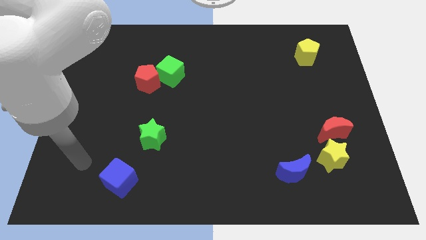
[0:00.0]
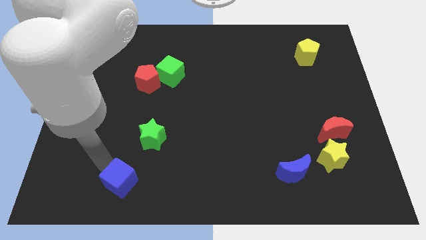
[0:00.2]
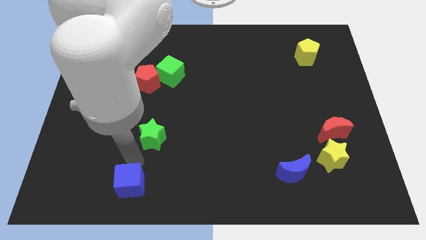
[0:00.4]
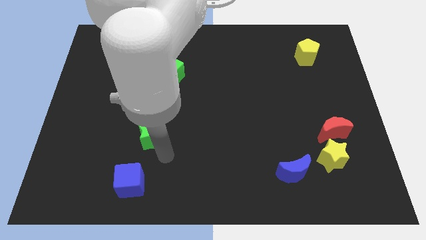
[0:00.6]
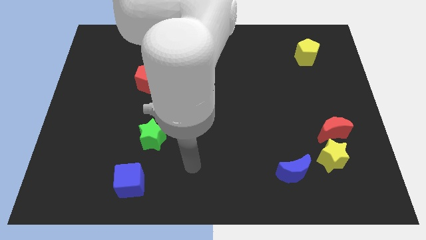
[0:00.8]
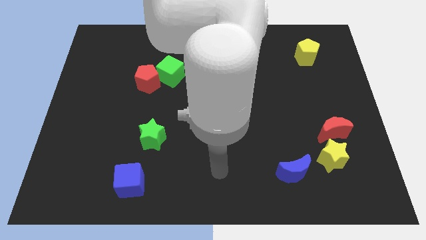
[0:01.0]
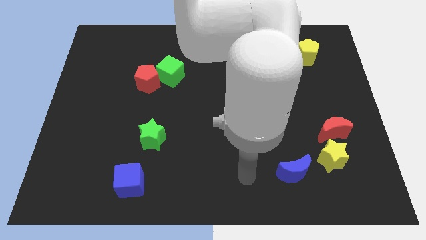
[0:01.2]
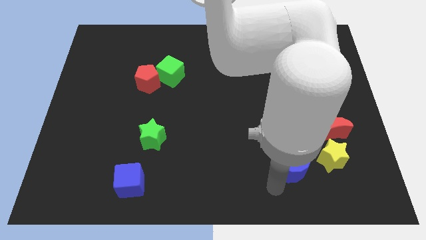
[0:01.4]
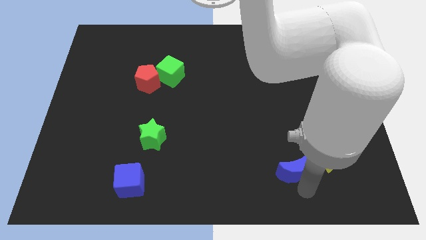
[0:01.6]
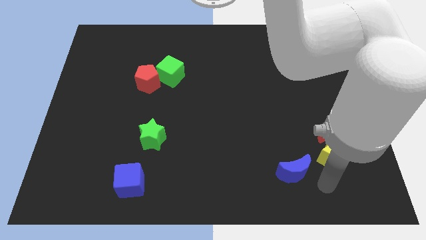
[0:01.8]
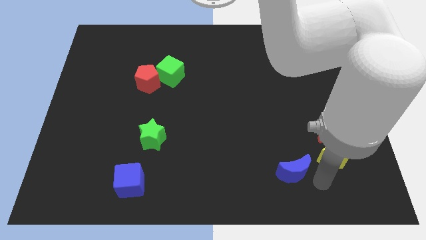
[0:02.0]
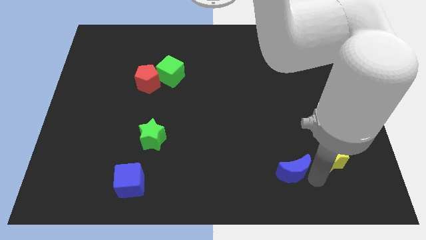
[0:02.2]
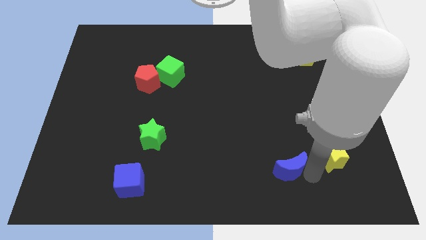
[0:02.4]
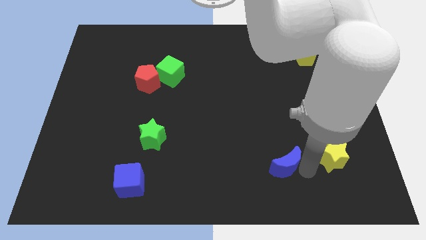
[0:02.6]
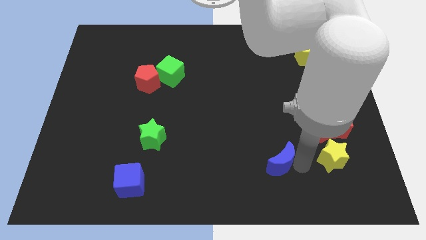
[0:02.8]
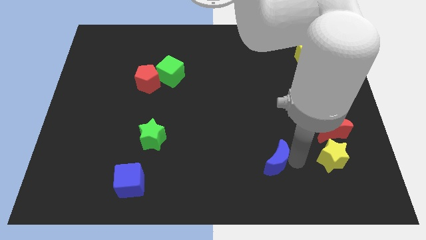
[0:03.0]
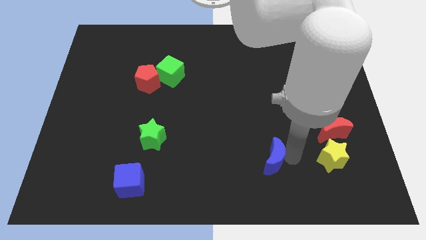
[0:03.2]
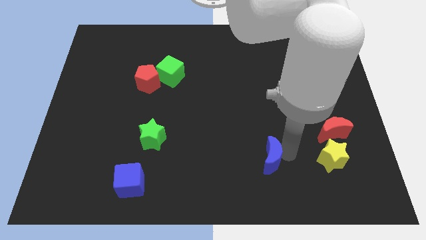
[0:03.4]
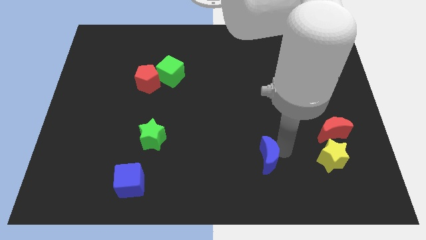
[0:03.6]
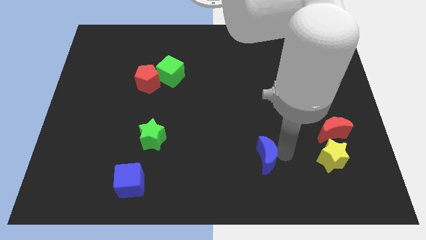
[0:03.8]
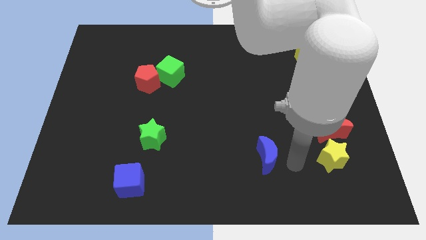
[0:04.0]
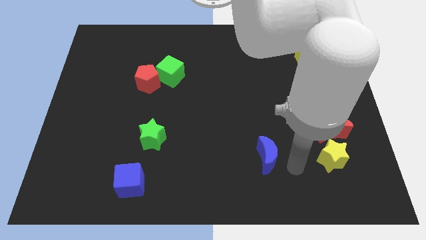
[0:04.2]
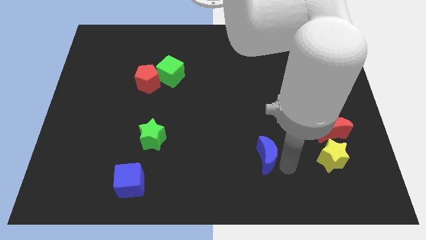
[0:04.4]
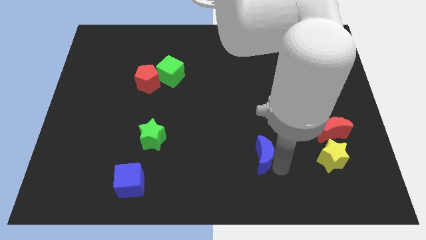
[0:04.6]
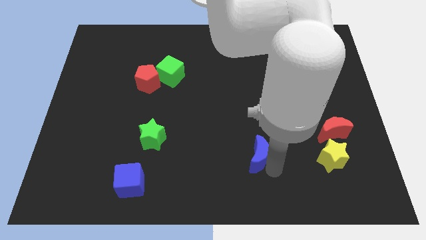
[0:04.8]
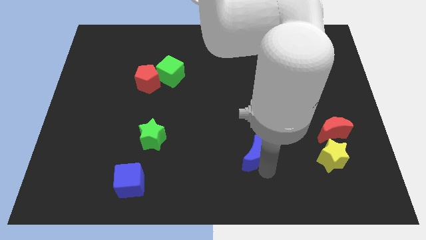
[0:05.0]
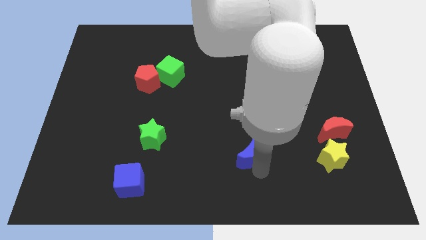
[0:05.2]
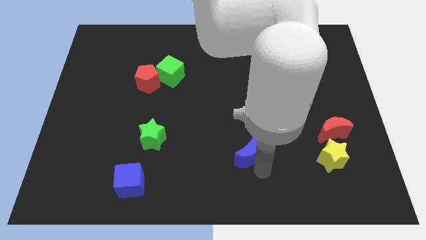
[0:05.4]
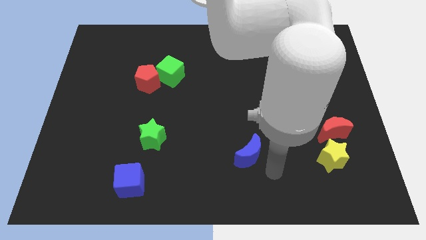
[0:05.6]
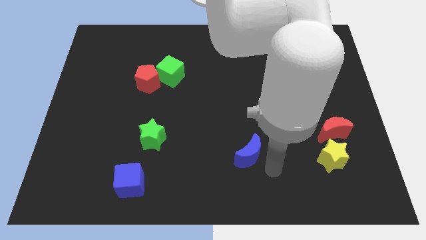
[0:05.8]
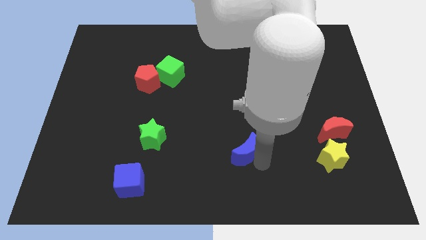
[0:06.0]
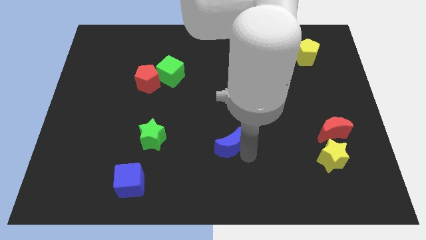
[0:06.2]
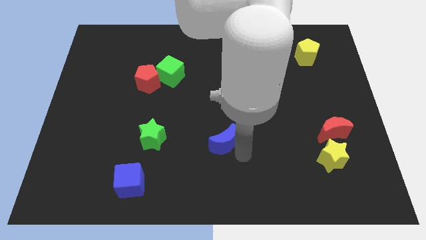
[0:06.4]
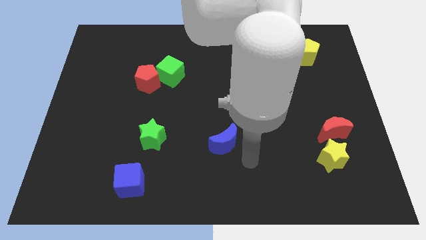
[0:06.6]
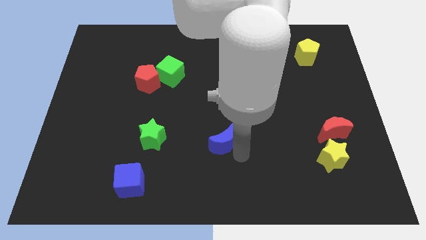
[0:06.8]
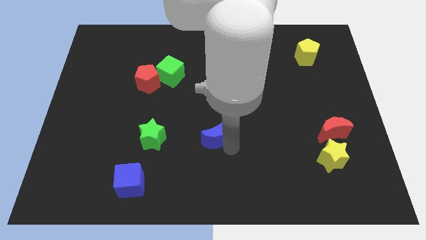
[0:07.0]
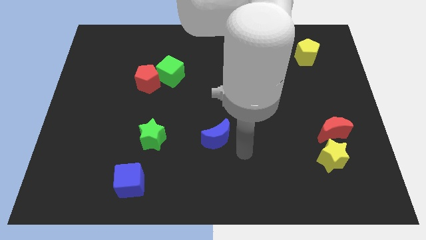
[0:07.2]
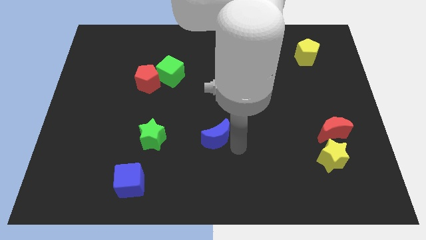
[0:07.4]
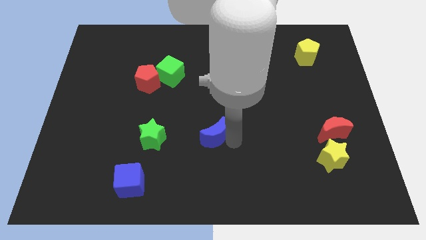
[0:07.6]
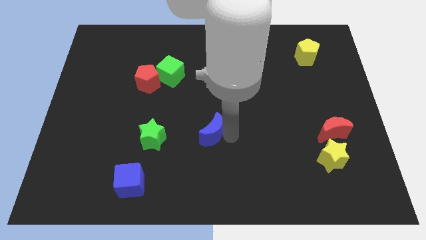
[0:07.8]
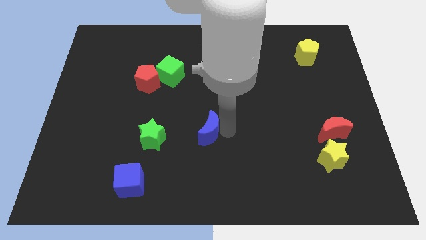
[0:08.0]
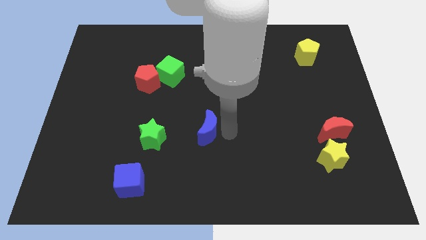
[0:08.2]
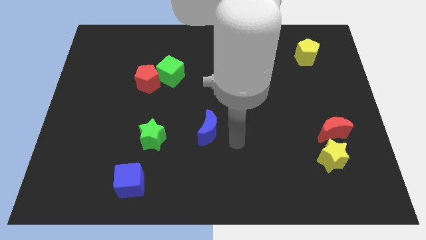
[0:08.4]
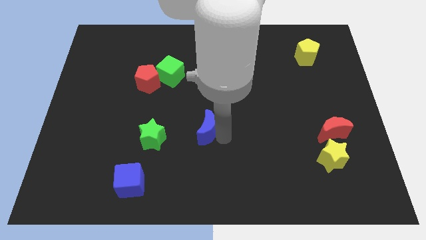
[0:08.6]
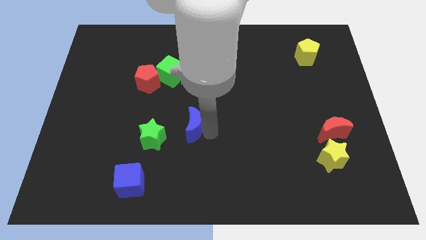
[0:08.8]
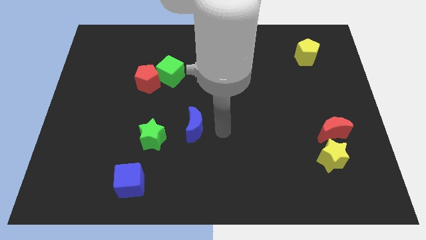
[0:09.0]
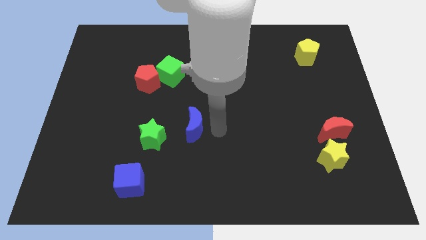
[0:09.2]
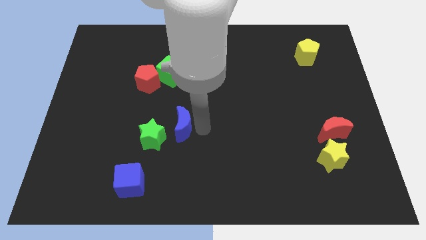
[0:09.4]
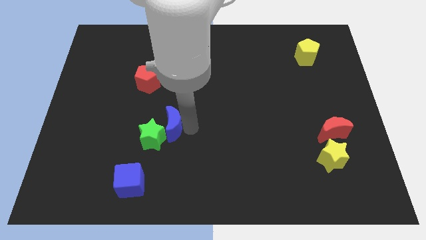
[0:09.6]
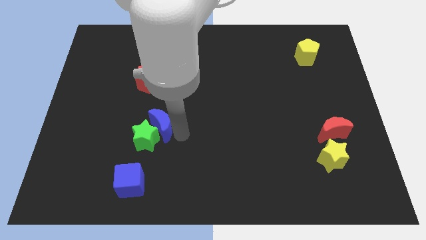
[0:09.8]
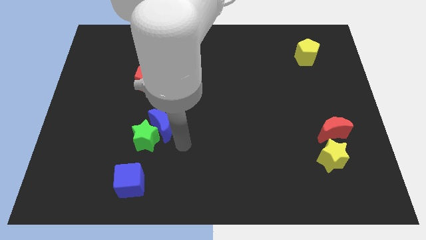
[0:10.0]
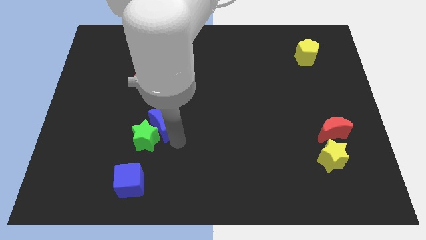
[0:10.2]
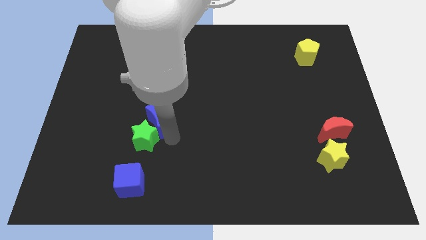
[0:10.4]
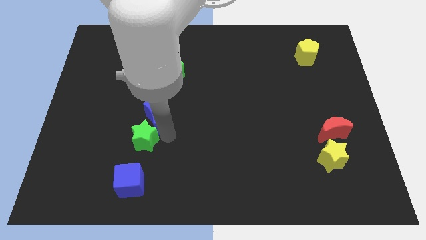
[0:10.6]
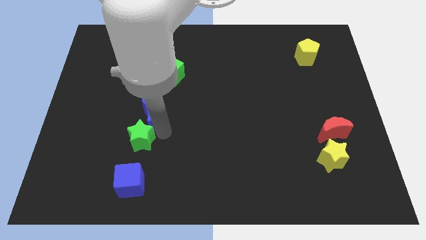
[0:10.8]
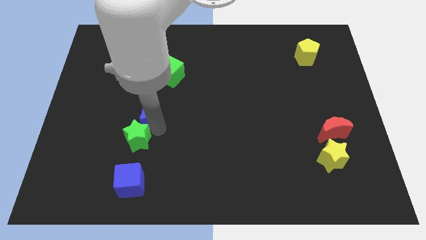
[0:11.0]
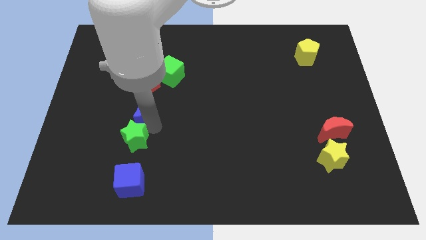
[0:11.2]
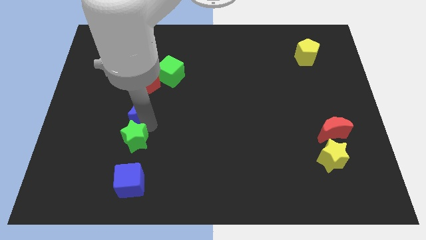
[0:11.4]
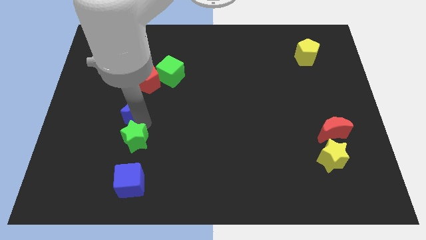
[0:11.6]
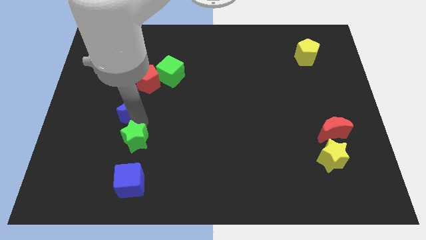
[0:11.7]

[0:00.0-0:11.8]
move the blue moon to the bottom left of the red pentagon

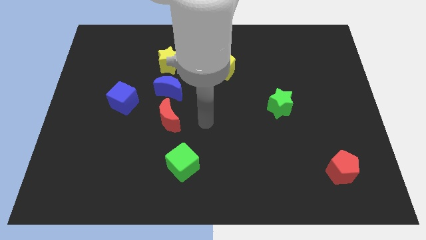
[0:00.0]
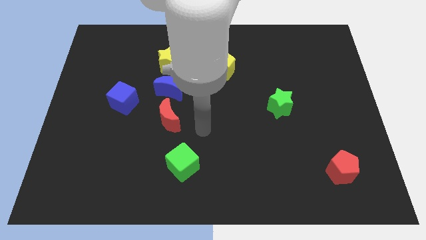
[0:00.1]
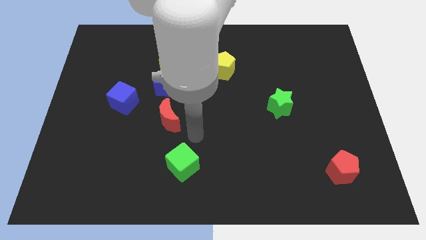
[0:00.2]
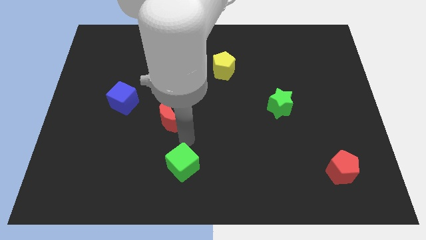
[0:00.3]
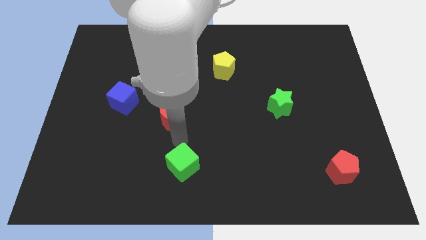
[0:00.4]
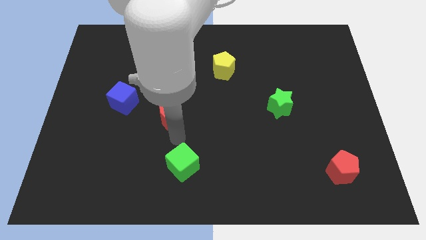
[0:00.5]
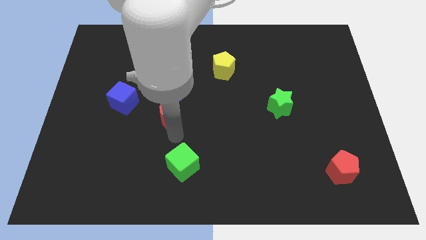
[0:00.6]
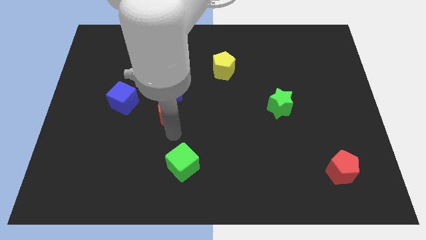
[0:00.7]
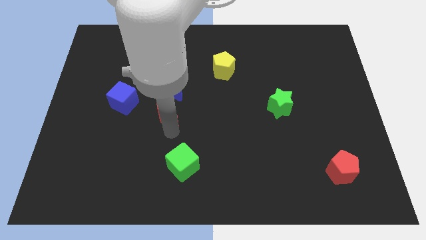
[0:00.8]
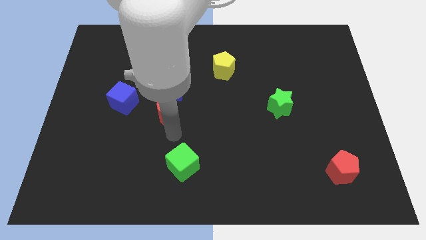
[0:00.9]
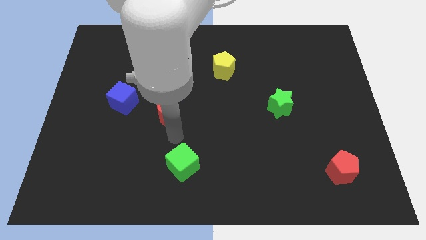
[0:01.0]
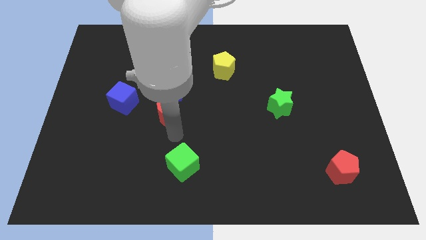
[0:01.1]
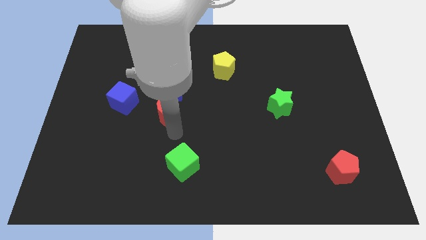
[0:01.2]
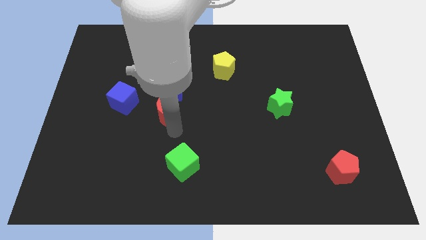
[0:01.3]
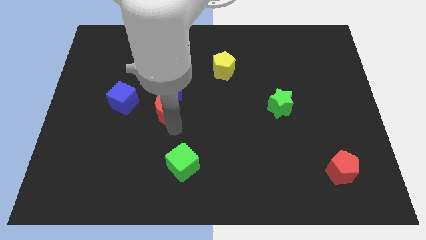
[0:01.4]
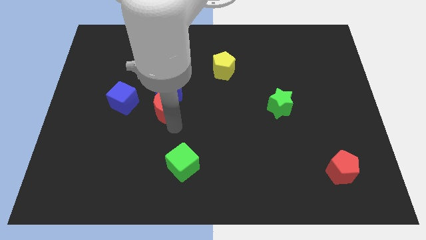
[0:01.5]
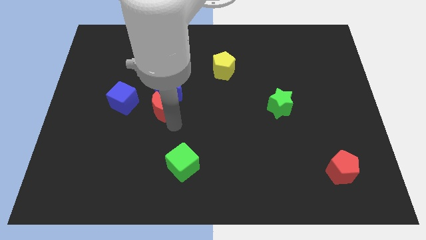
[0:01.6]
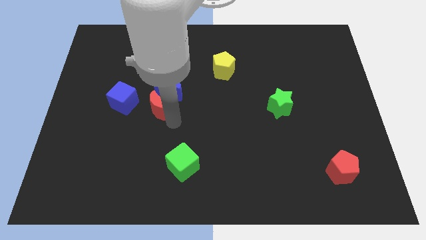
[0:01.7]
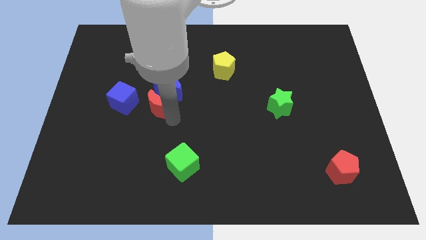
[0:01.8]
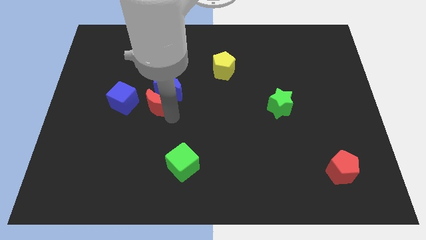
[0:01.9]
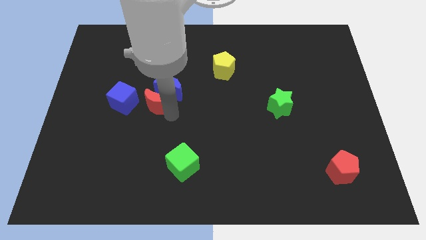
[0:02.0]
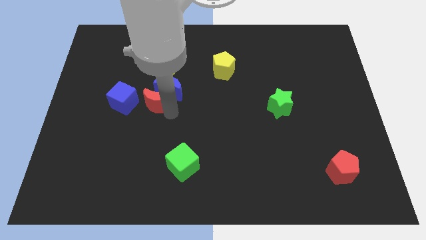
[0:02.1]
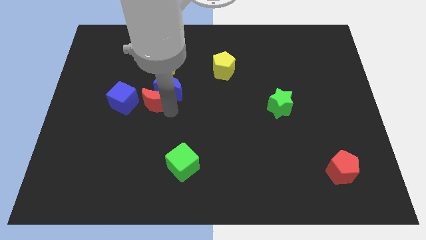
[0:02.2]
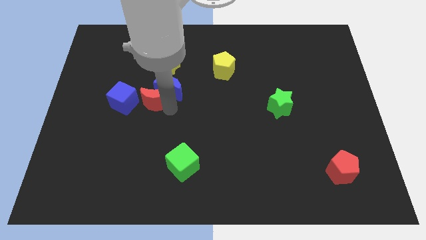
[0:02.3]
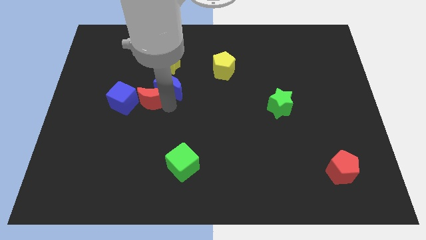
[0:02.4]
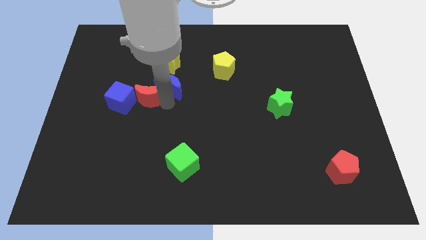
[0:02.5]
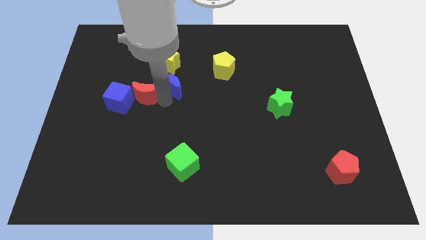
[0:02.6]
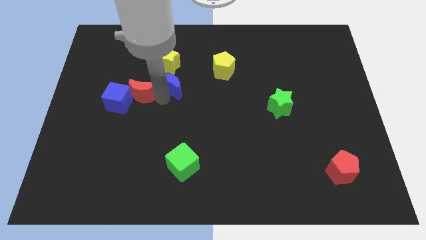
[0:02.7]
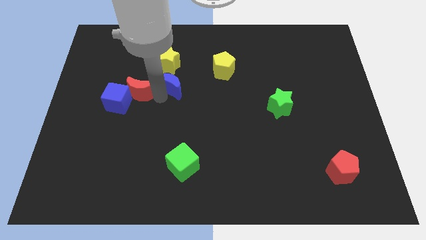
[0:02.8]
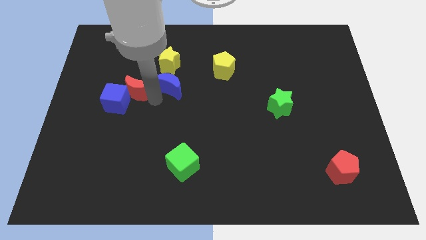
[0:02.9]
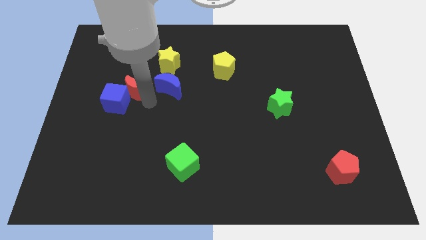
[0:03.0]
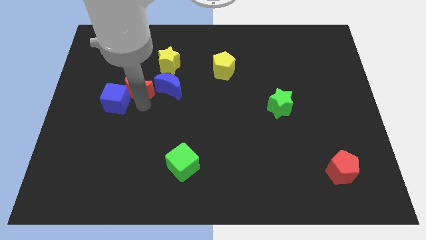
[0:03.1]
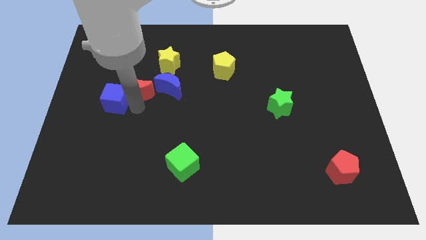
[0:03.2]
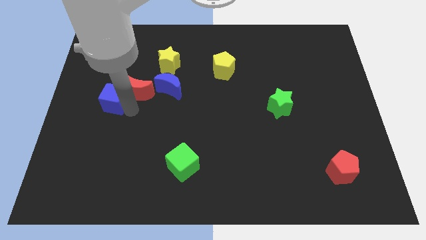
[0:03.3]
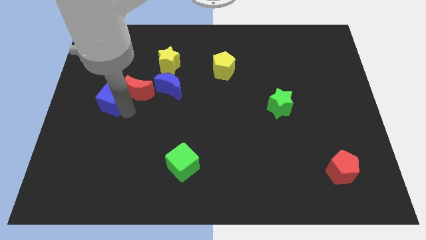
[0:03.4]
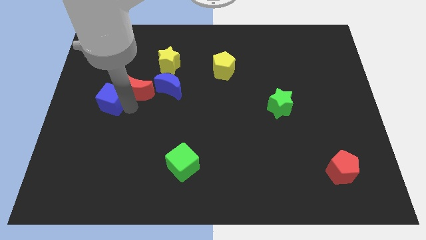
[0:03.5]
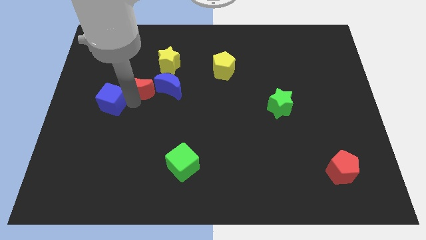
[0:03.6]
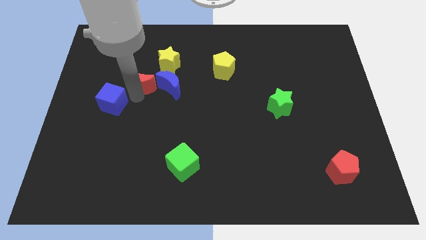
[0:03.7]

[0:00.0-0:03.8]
move the red moon diagonally up and to the left of the blue moon
